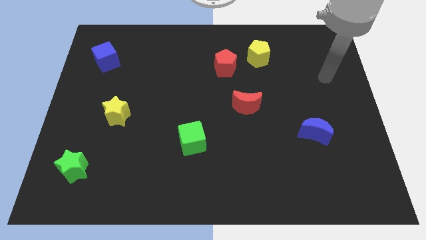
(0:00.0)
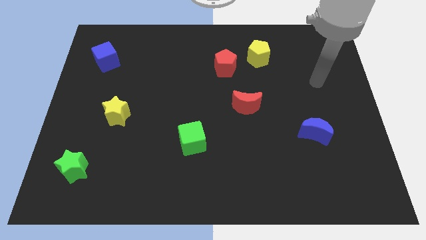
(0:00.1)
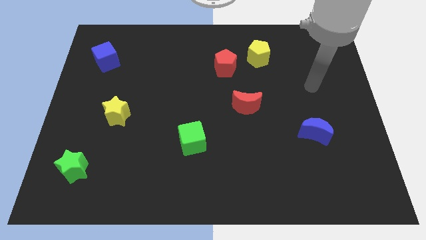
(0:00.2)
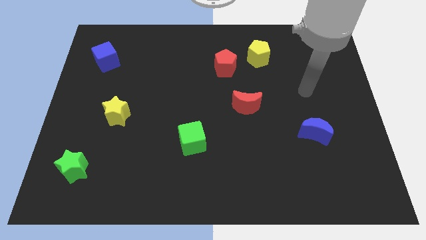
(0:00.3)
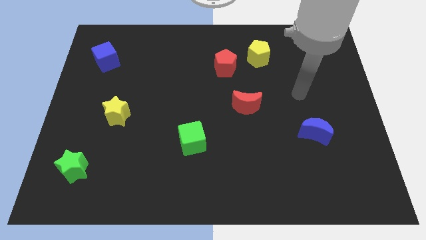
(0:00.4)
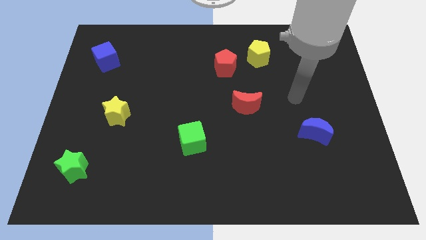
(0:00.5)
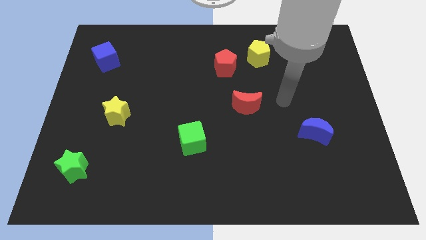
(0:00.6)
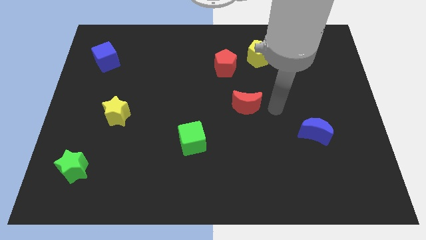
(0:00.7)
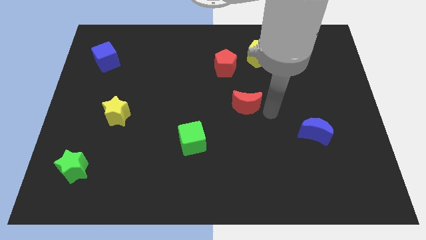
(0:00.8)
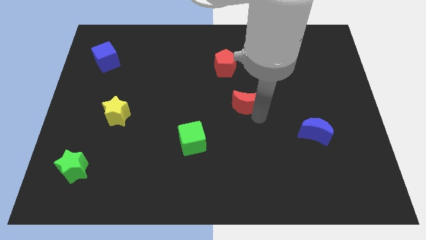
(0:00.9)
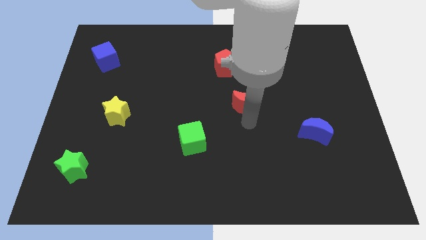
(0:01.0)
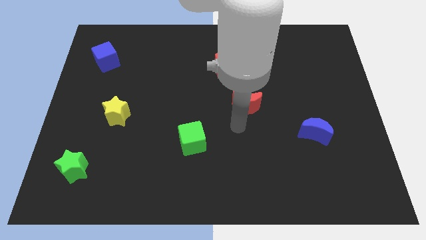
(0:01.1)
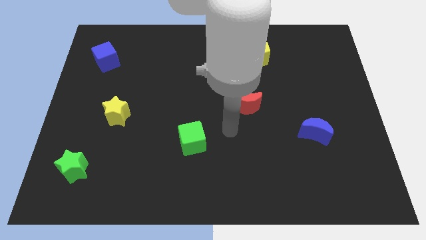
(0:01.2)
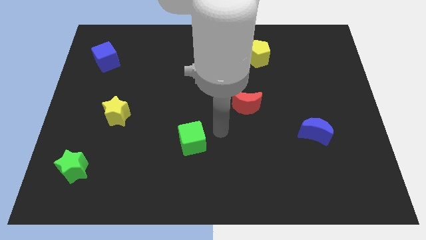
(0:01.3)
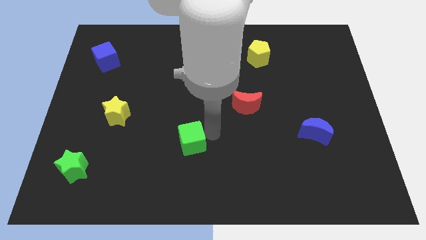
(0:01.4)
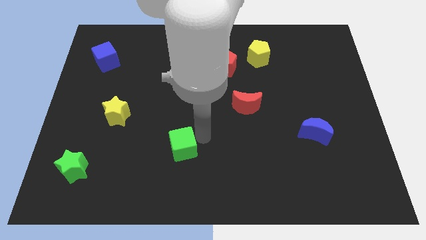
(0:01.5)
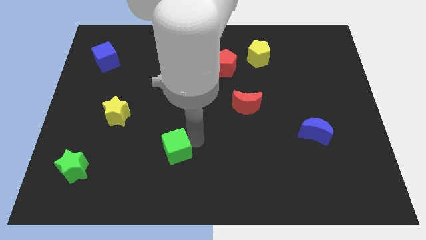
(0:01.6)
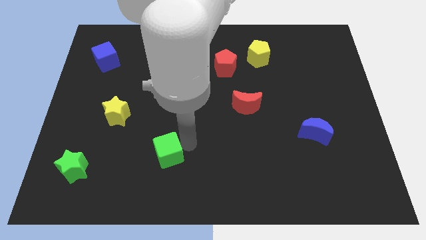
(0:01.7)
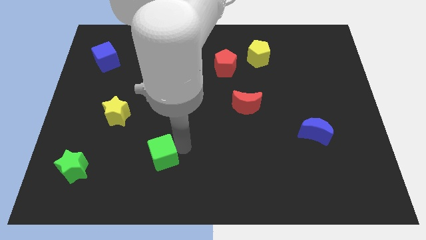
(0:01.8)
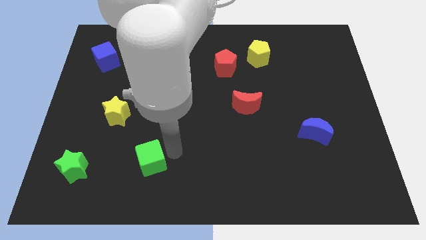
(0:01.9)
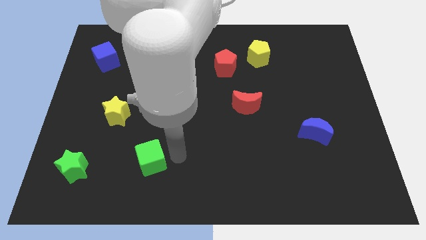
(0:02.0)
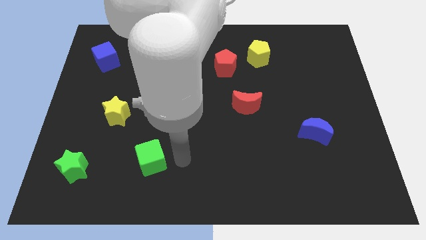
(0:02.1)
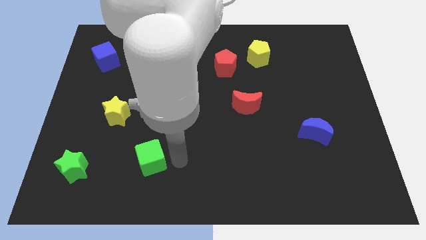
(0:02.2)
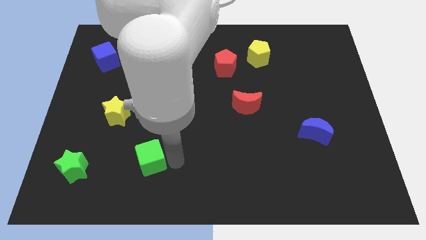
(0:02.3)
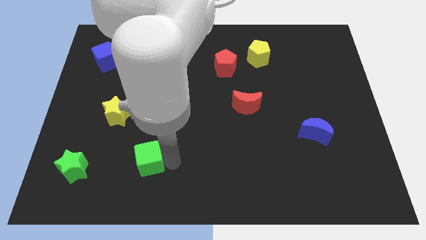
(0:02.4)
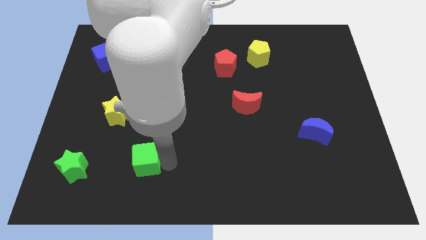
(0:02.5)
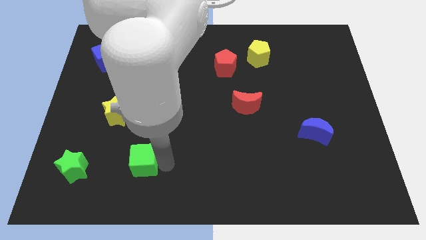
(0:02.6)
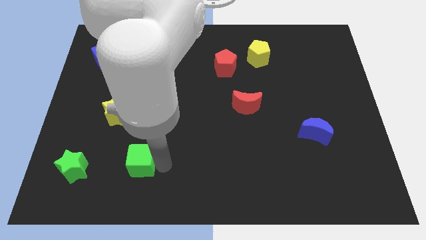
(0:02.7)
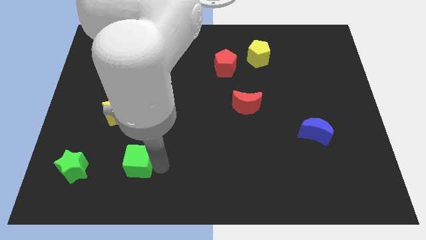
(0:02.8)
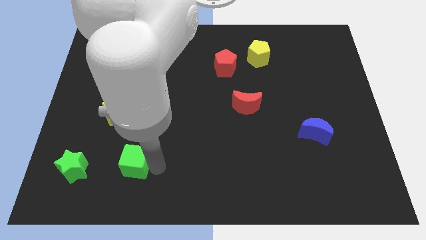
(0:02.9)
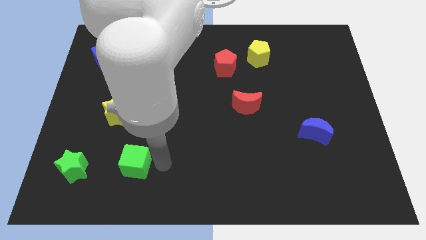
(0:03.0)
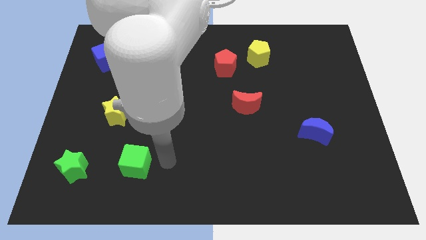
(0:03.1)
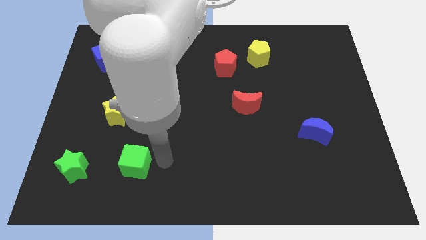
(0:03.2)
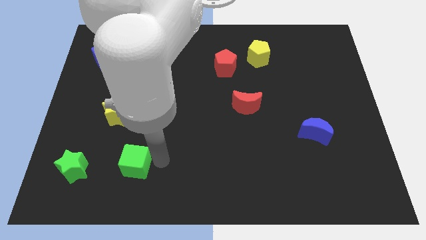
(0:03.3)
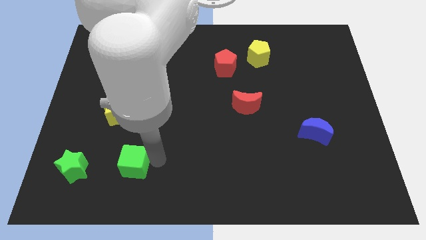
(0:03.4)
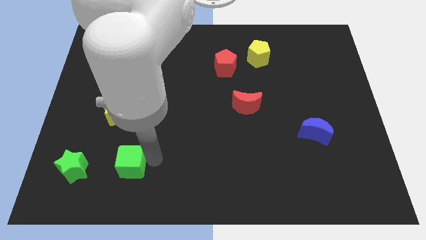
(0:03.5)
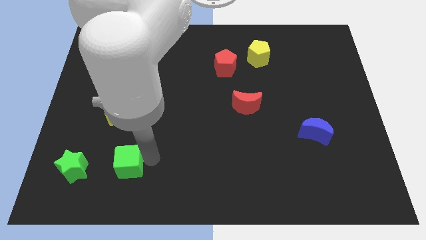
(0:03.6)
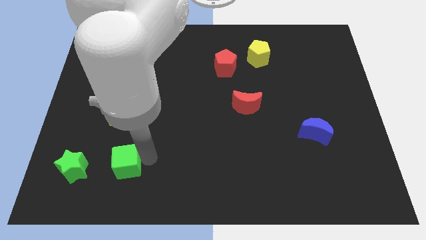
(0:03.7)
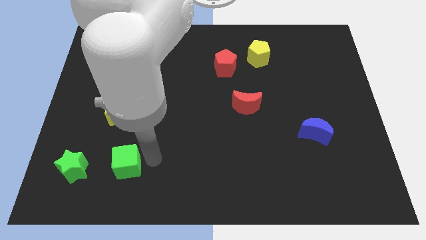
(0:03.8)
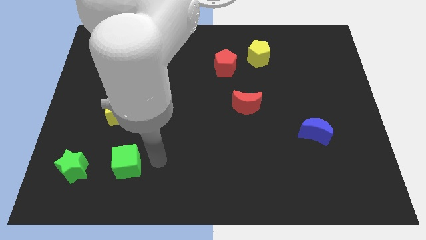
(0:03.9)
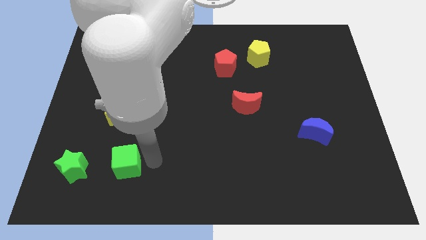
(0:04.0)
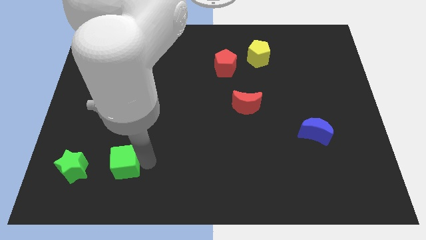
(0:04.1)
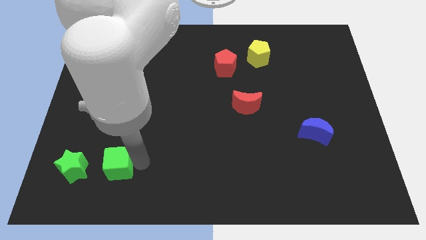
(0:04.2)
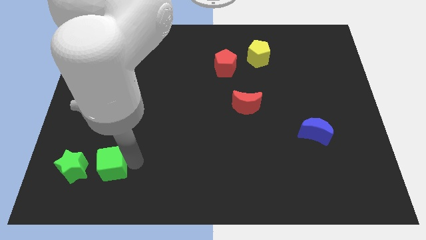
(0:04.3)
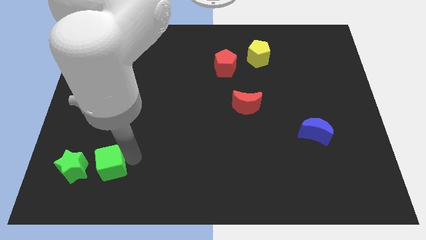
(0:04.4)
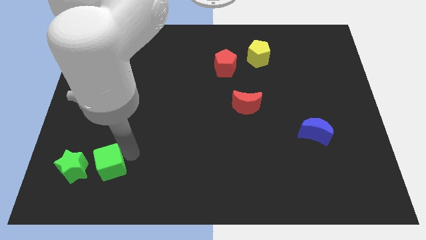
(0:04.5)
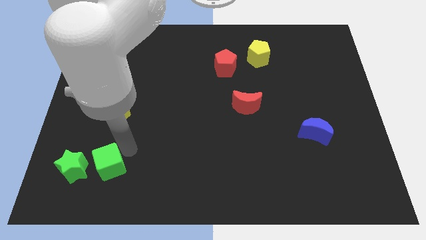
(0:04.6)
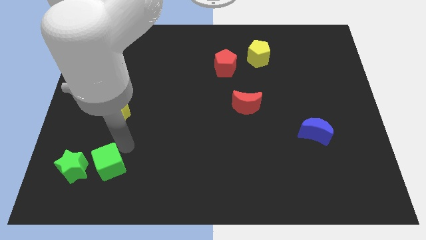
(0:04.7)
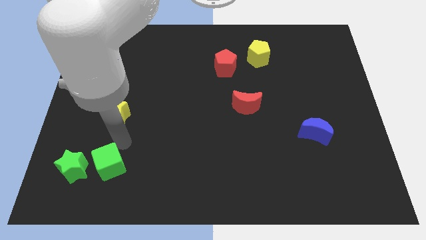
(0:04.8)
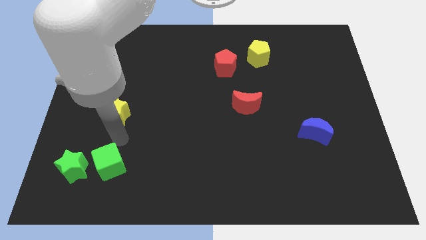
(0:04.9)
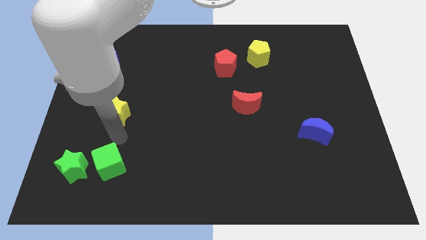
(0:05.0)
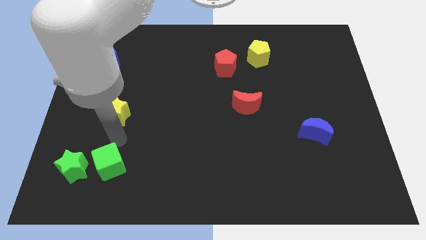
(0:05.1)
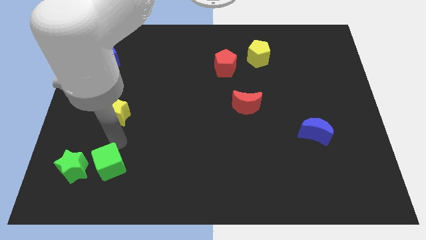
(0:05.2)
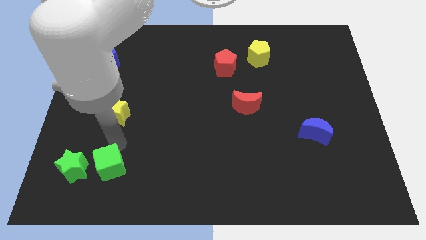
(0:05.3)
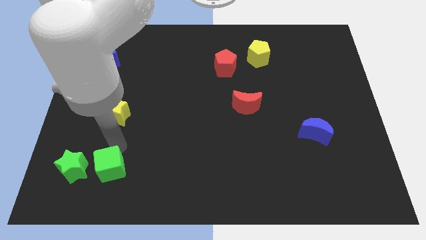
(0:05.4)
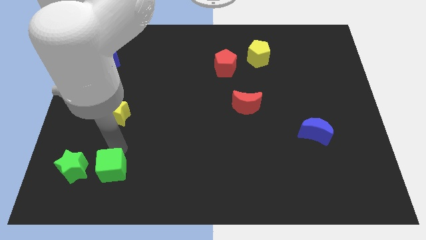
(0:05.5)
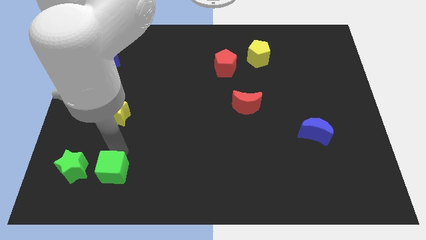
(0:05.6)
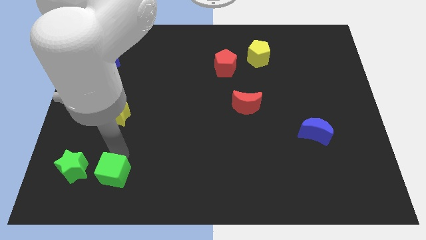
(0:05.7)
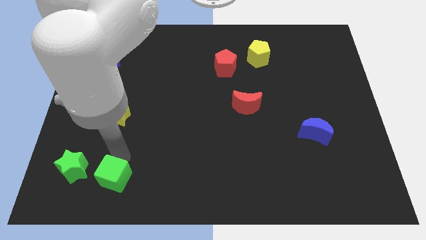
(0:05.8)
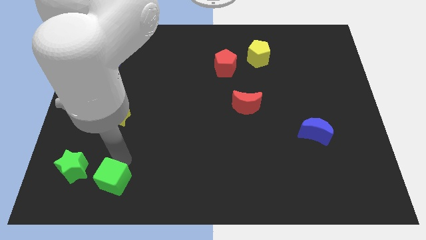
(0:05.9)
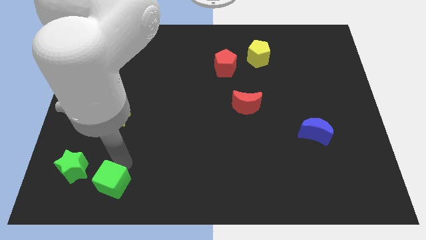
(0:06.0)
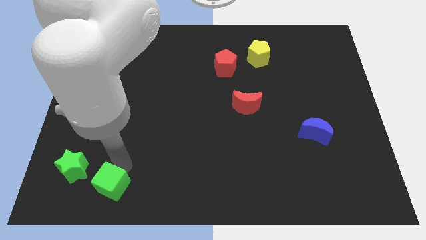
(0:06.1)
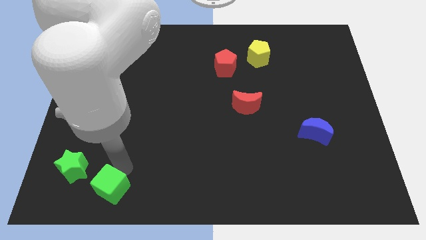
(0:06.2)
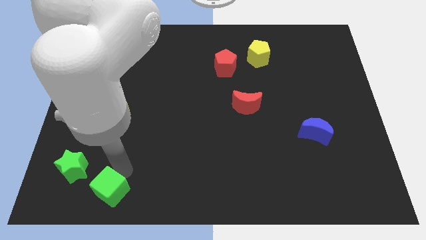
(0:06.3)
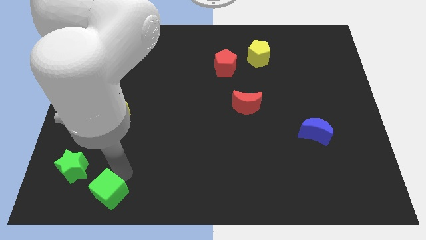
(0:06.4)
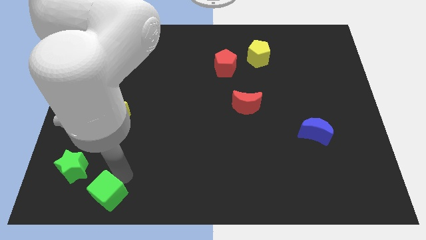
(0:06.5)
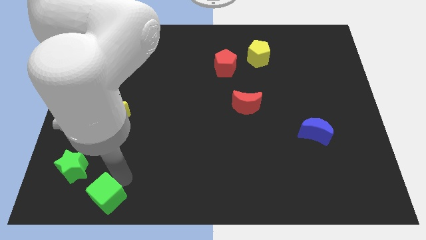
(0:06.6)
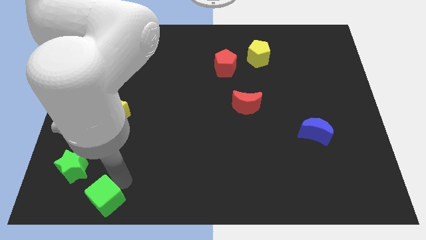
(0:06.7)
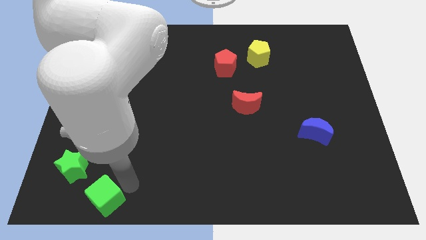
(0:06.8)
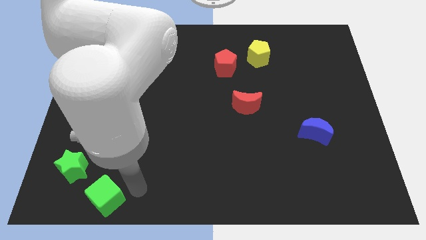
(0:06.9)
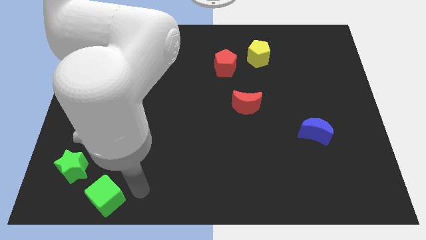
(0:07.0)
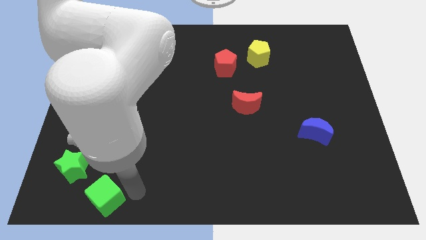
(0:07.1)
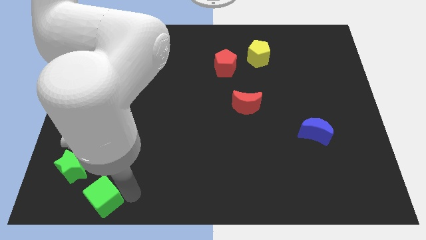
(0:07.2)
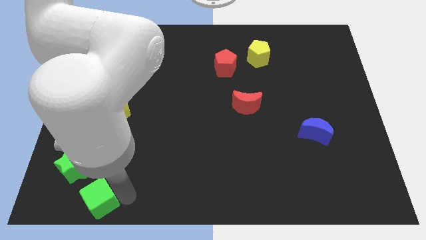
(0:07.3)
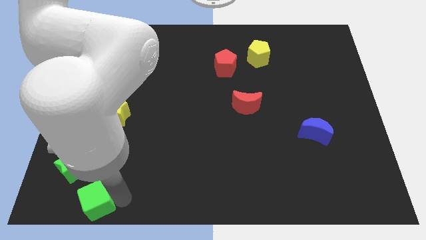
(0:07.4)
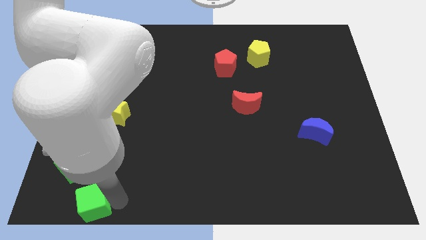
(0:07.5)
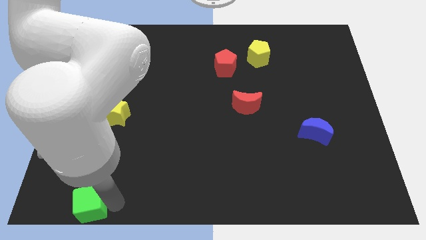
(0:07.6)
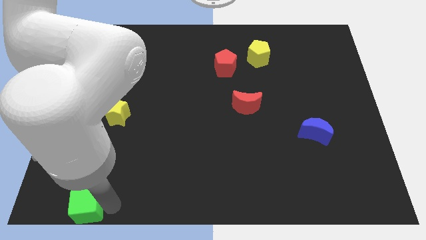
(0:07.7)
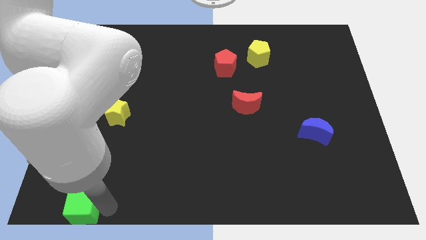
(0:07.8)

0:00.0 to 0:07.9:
slide the green cube to the bottom left
